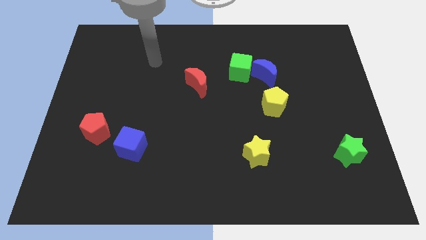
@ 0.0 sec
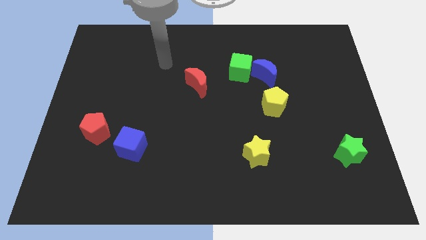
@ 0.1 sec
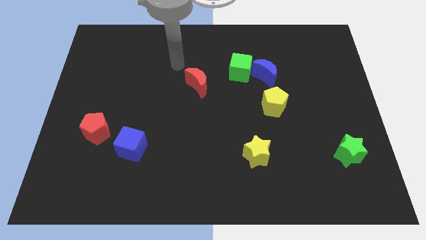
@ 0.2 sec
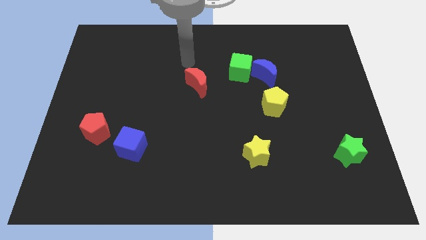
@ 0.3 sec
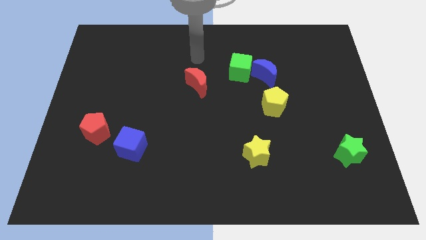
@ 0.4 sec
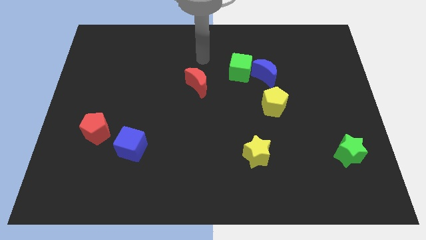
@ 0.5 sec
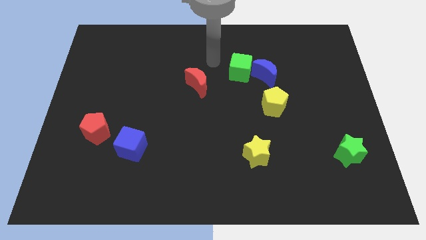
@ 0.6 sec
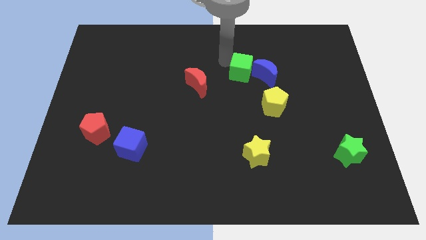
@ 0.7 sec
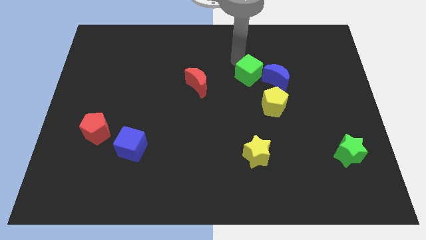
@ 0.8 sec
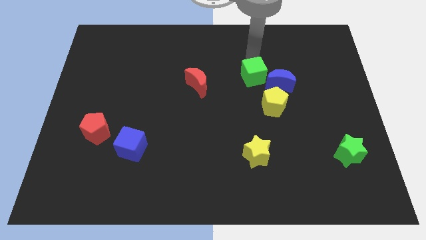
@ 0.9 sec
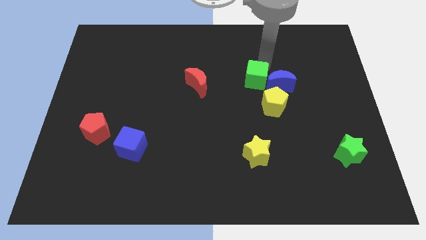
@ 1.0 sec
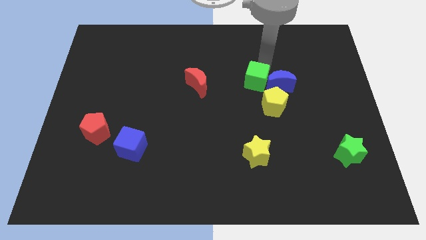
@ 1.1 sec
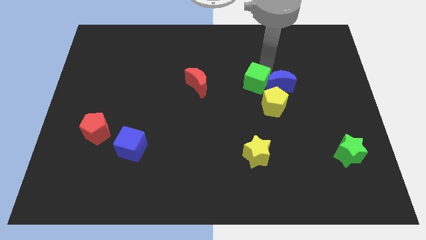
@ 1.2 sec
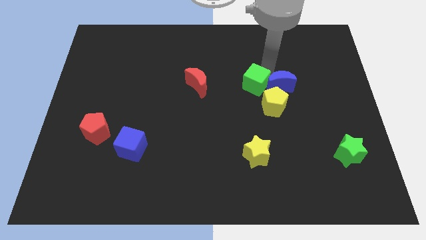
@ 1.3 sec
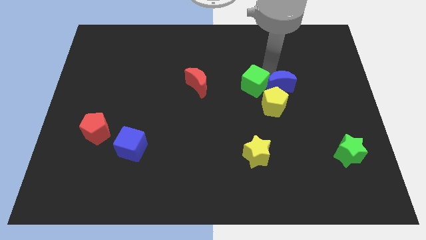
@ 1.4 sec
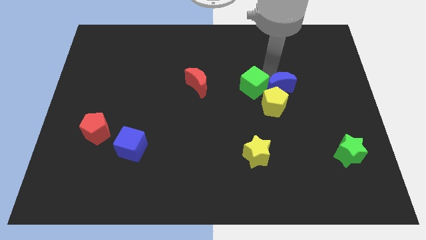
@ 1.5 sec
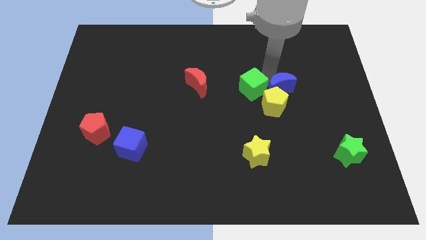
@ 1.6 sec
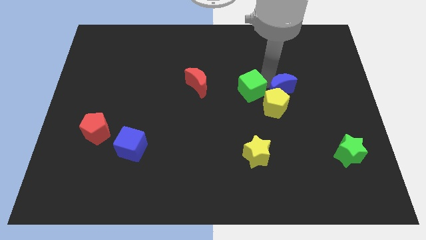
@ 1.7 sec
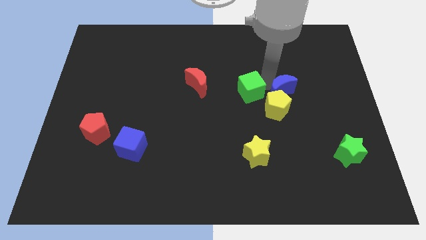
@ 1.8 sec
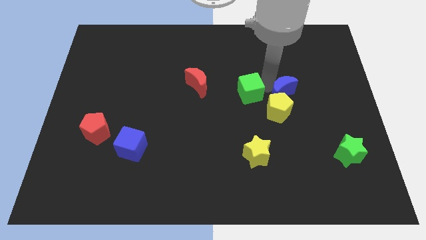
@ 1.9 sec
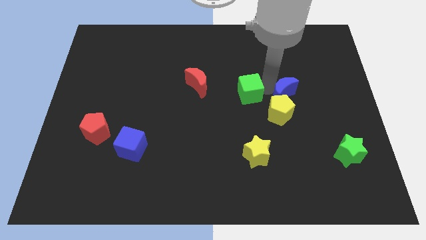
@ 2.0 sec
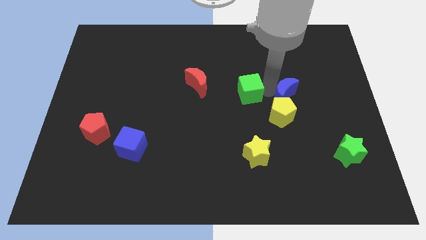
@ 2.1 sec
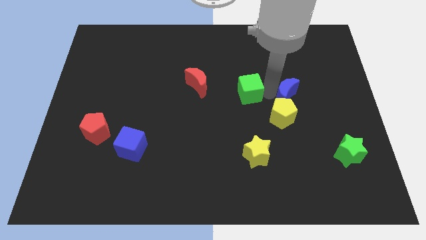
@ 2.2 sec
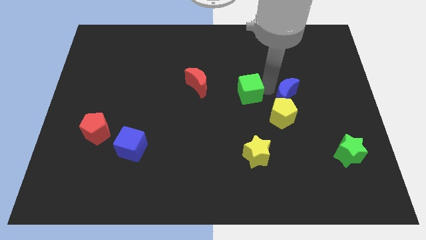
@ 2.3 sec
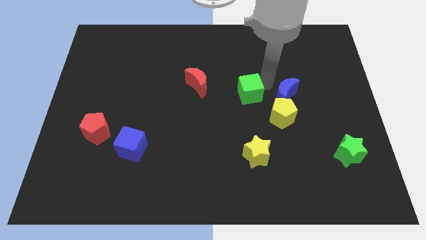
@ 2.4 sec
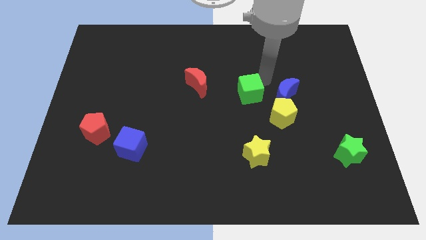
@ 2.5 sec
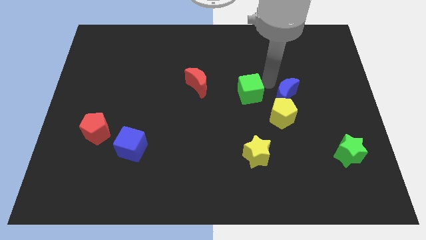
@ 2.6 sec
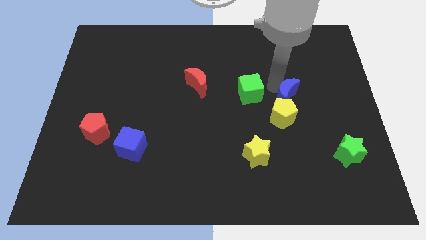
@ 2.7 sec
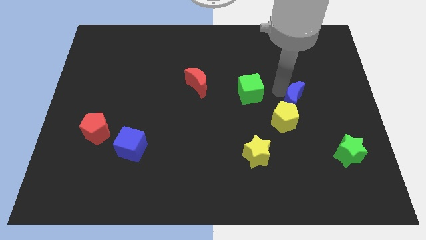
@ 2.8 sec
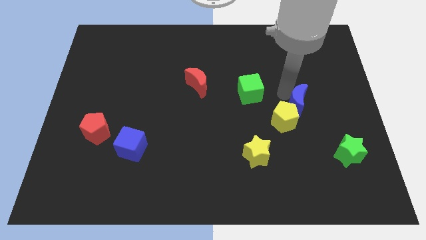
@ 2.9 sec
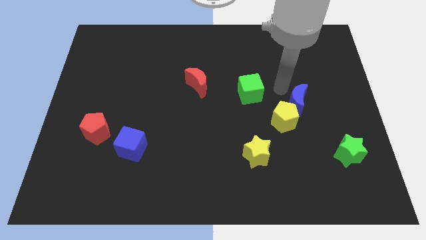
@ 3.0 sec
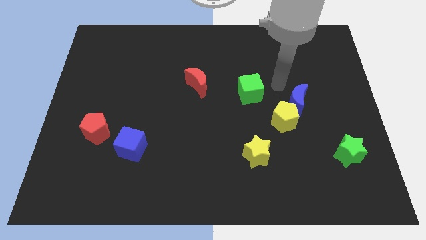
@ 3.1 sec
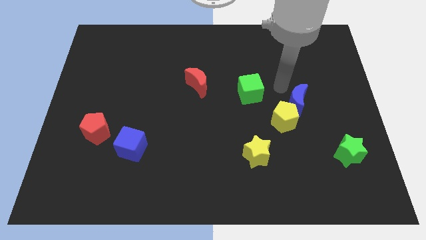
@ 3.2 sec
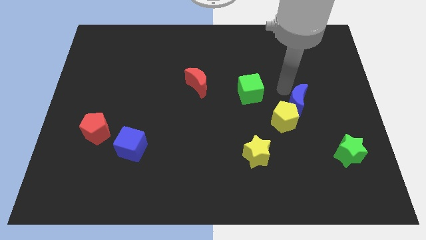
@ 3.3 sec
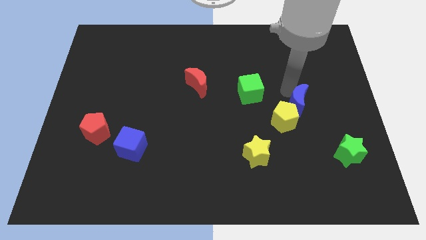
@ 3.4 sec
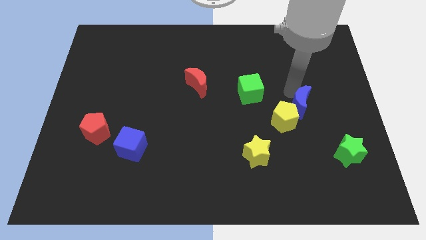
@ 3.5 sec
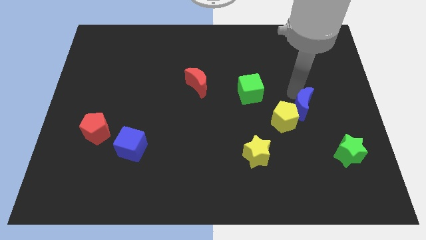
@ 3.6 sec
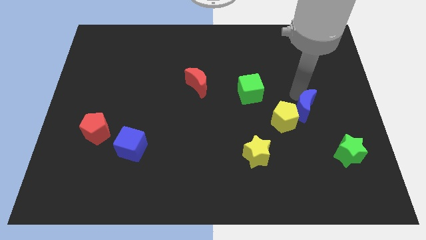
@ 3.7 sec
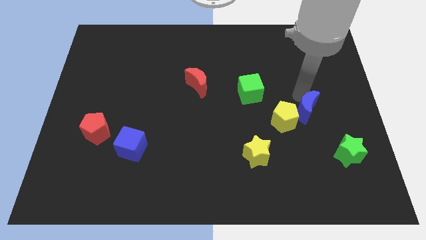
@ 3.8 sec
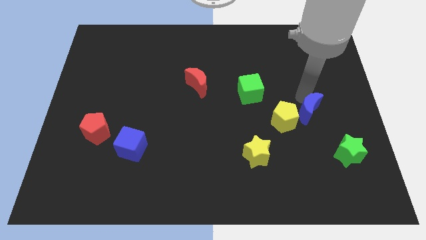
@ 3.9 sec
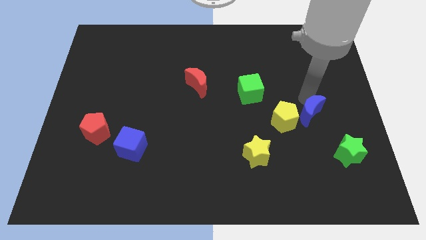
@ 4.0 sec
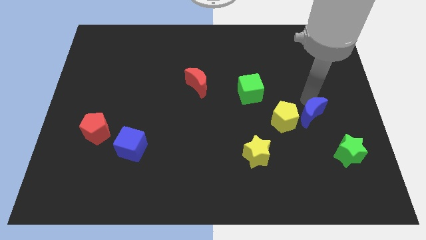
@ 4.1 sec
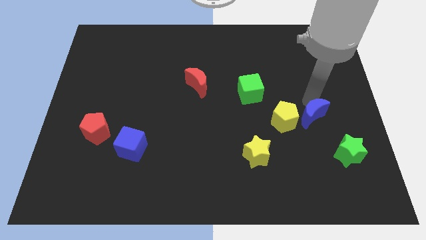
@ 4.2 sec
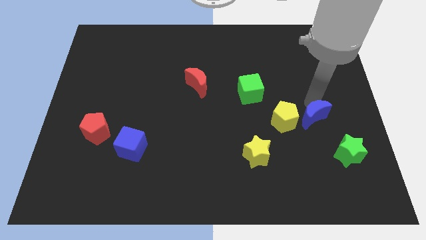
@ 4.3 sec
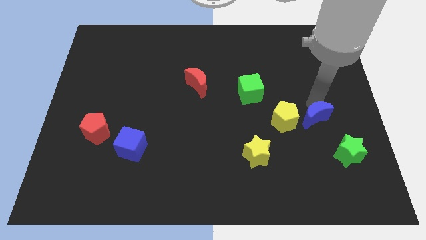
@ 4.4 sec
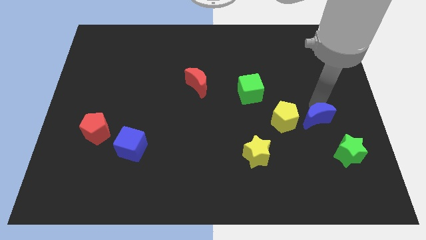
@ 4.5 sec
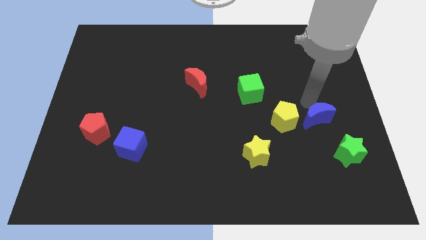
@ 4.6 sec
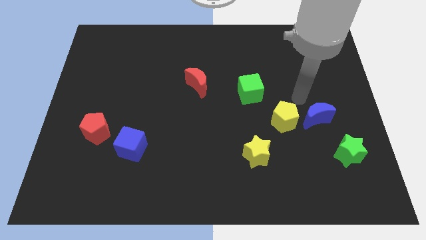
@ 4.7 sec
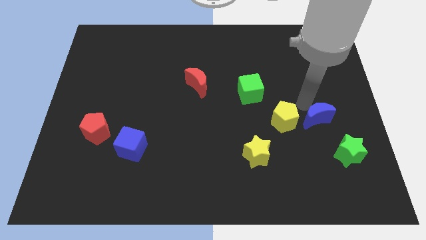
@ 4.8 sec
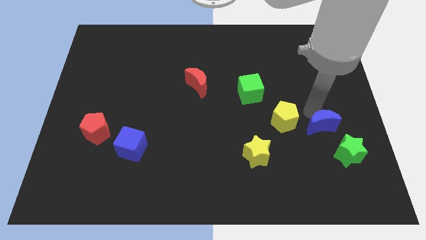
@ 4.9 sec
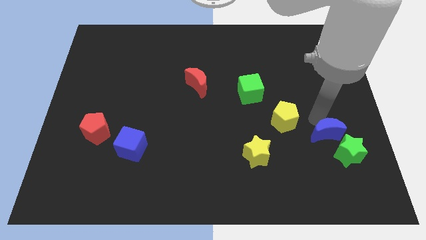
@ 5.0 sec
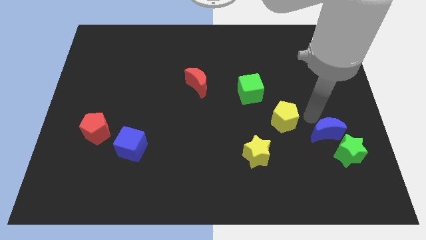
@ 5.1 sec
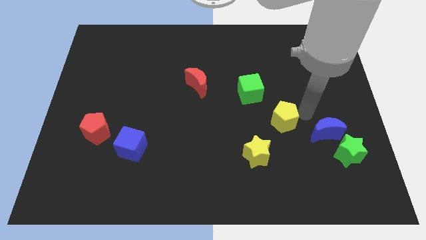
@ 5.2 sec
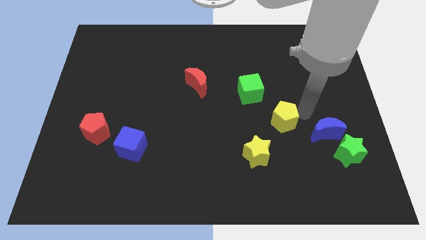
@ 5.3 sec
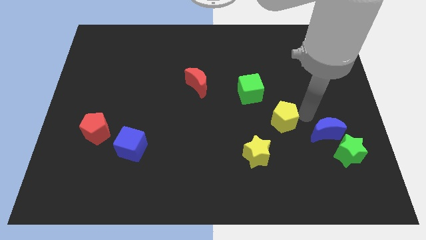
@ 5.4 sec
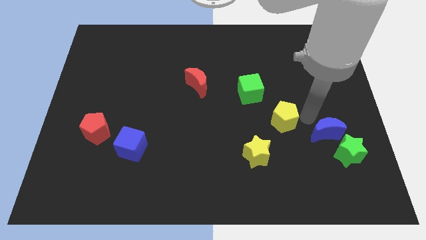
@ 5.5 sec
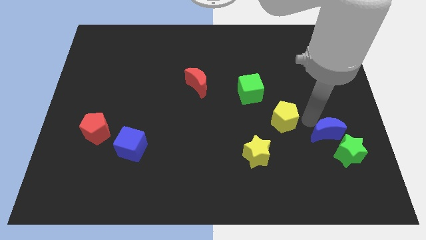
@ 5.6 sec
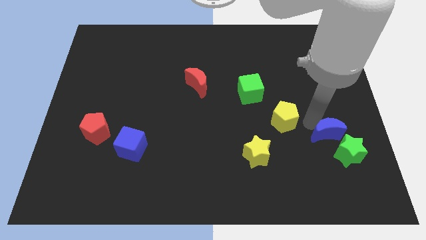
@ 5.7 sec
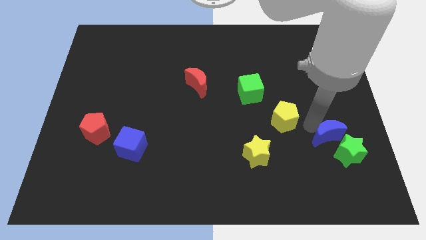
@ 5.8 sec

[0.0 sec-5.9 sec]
move the blue moon towards the green star

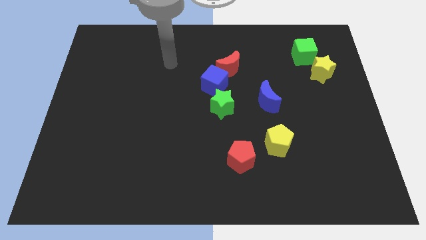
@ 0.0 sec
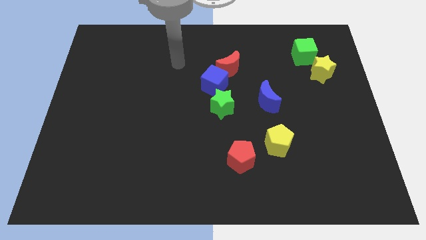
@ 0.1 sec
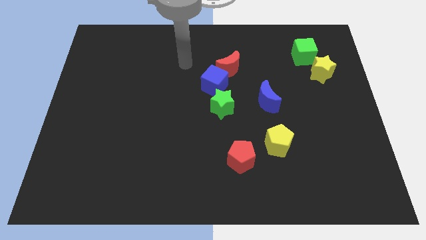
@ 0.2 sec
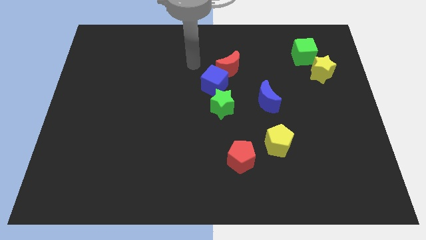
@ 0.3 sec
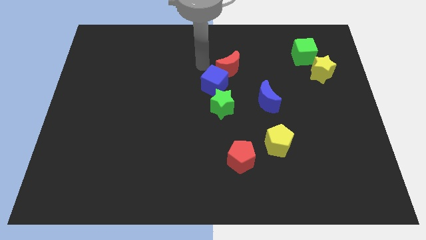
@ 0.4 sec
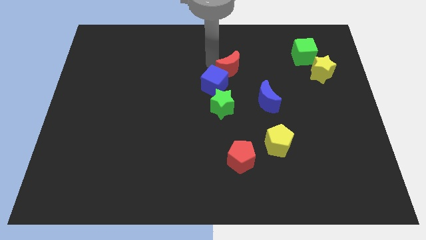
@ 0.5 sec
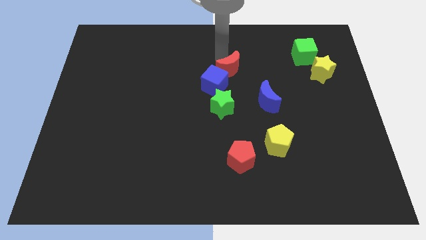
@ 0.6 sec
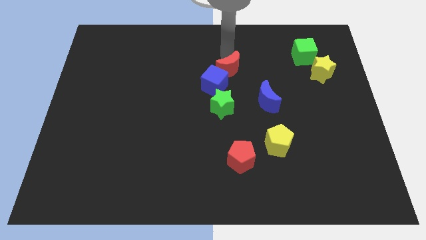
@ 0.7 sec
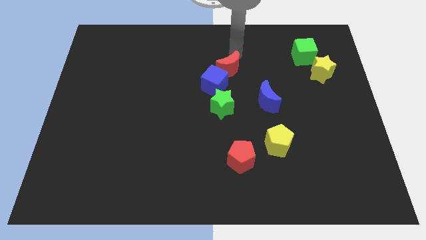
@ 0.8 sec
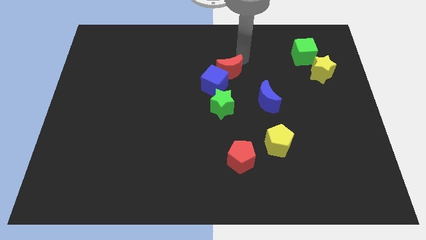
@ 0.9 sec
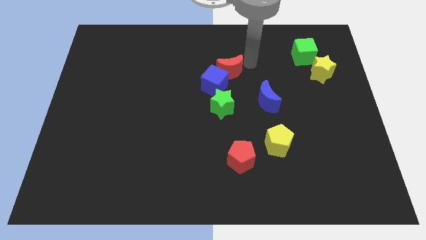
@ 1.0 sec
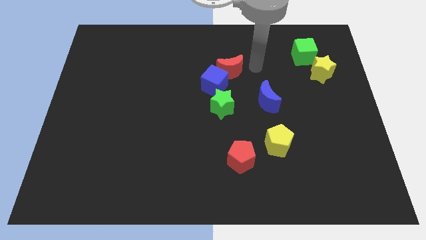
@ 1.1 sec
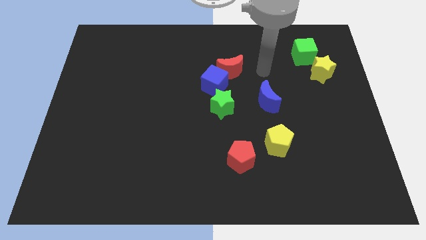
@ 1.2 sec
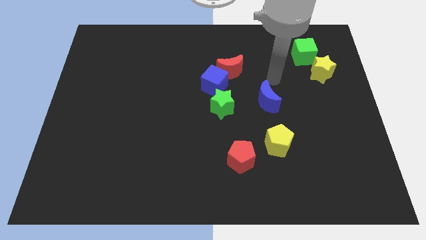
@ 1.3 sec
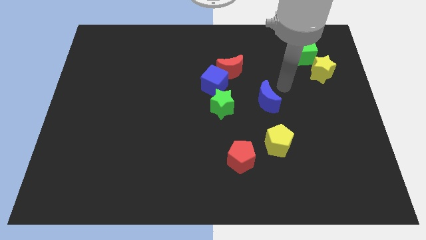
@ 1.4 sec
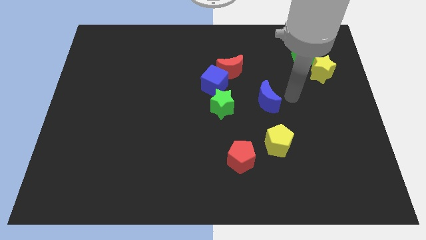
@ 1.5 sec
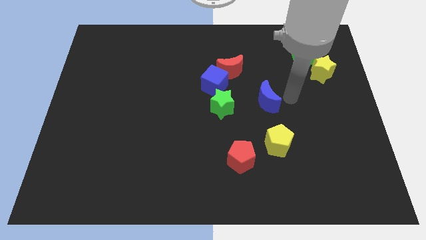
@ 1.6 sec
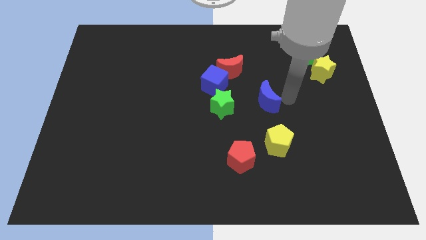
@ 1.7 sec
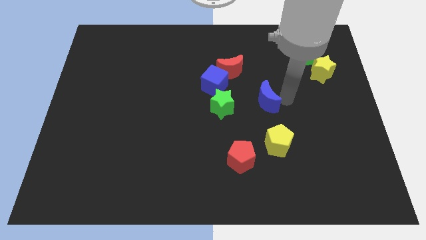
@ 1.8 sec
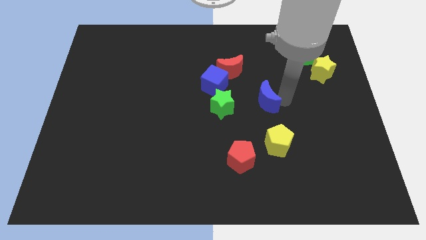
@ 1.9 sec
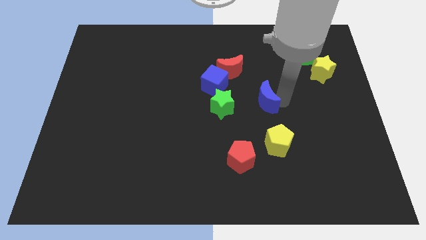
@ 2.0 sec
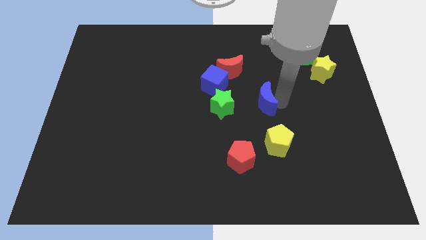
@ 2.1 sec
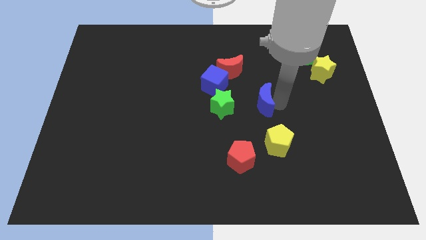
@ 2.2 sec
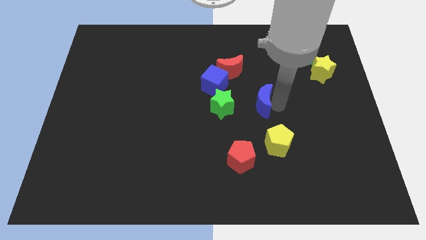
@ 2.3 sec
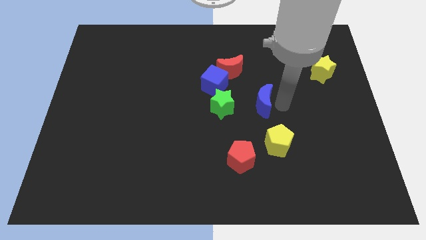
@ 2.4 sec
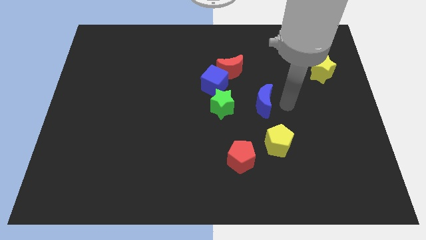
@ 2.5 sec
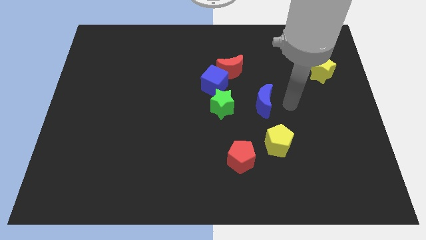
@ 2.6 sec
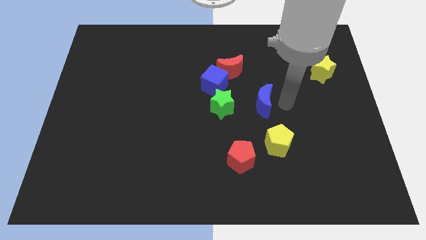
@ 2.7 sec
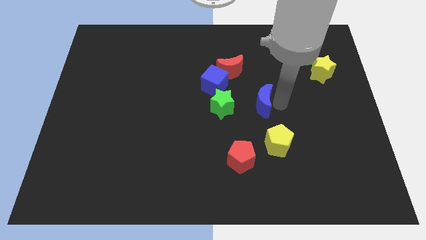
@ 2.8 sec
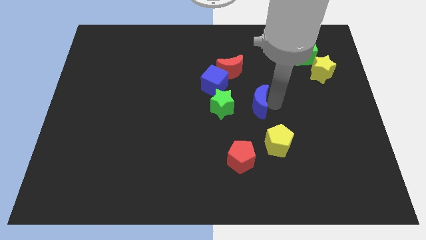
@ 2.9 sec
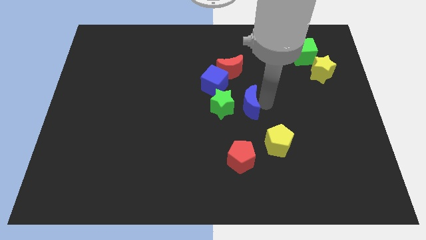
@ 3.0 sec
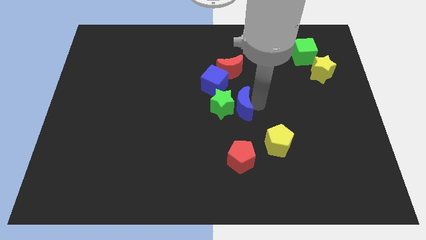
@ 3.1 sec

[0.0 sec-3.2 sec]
slide the blue moon next to the green star
